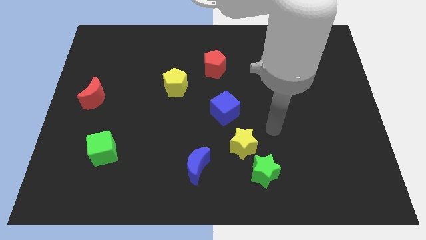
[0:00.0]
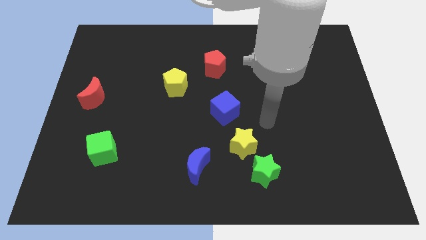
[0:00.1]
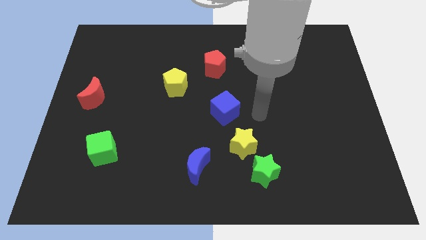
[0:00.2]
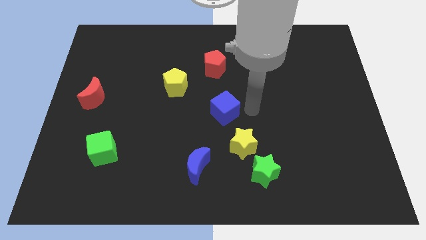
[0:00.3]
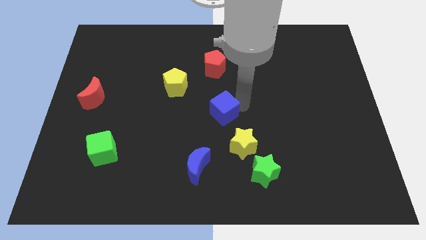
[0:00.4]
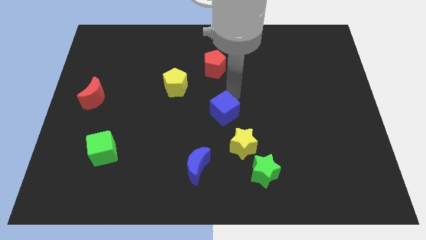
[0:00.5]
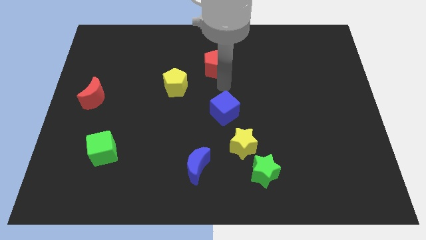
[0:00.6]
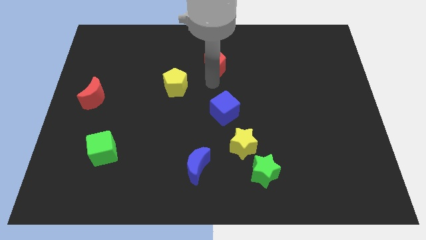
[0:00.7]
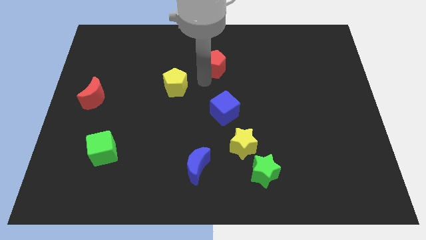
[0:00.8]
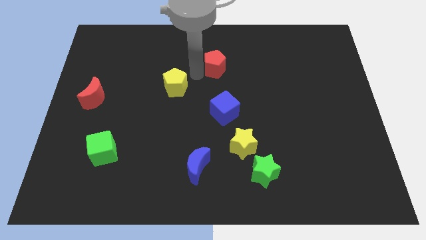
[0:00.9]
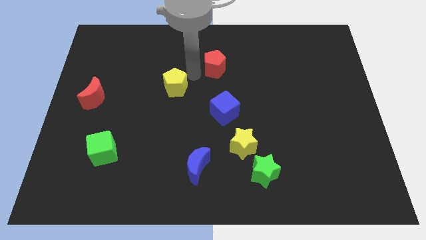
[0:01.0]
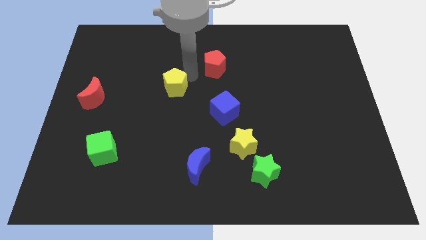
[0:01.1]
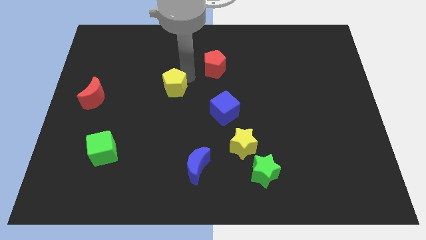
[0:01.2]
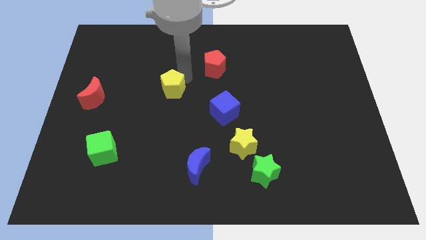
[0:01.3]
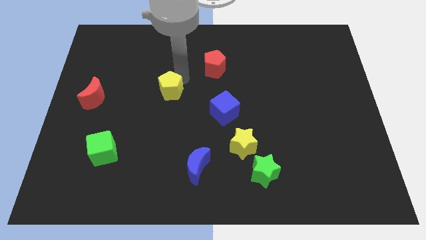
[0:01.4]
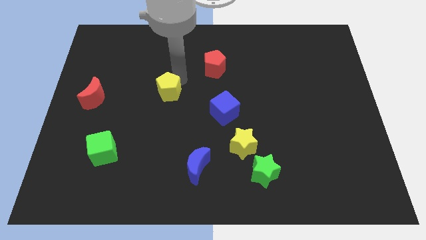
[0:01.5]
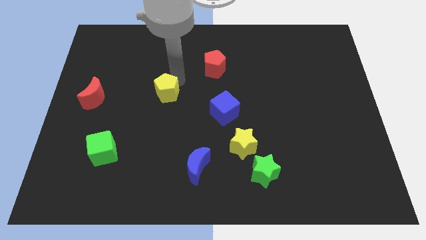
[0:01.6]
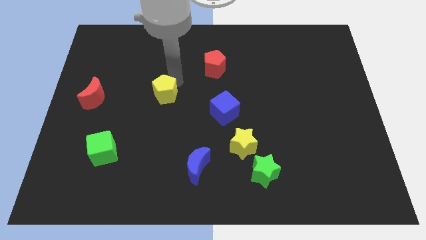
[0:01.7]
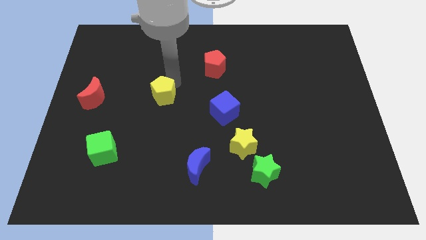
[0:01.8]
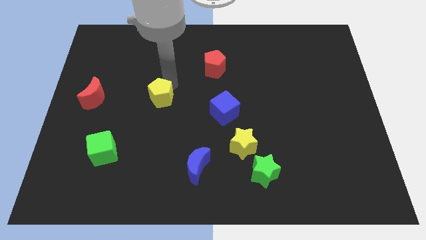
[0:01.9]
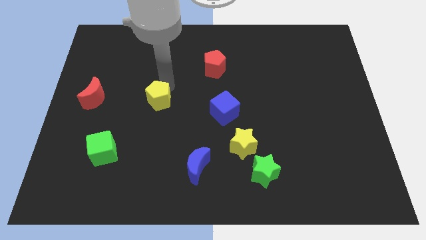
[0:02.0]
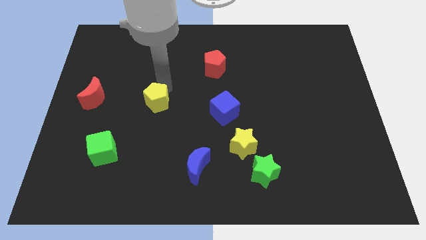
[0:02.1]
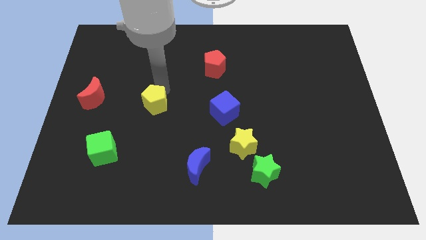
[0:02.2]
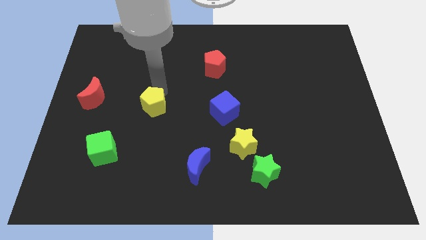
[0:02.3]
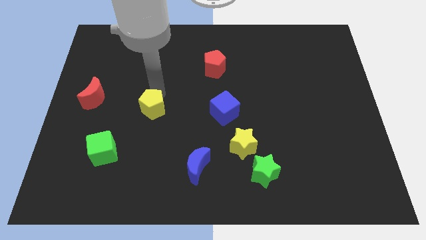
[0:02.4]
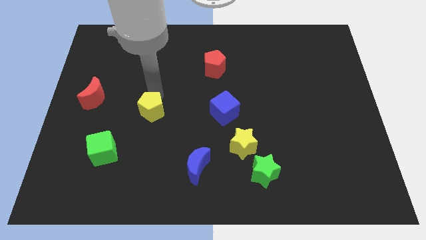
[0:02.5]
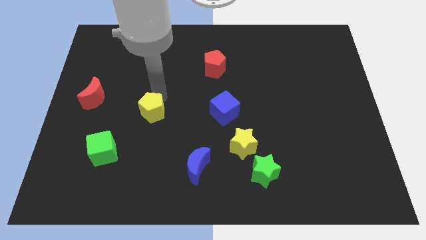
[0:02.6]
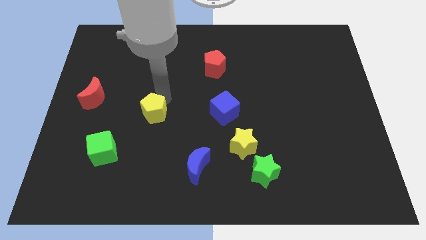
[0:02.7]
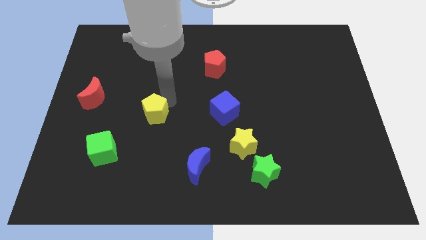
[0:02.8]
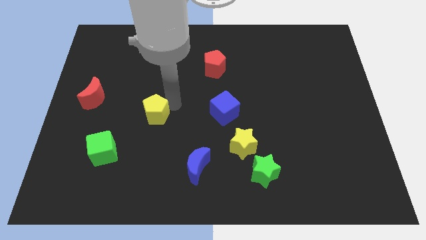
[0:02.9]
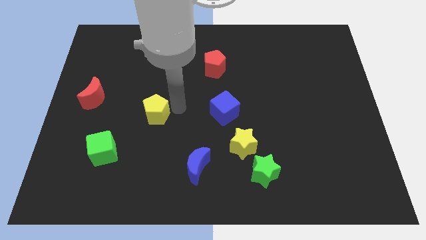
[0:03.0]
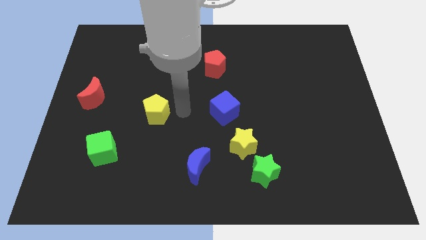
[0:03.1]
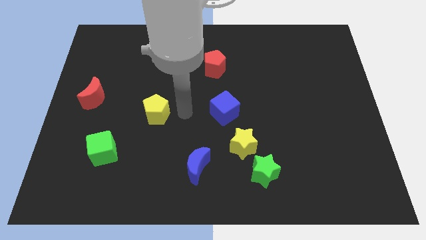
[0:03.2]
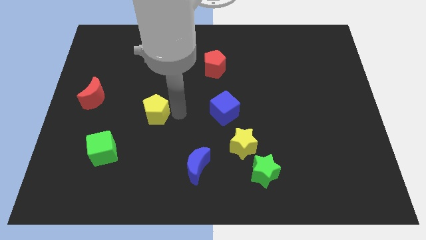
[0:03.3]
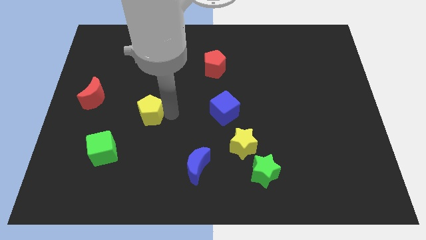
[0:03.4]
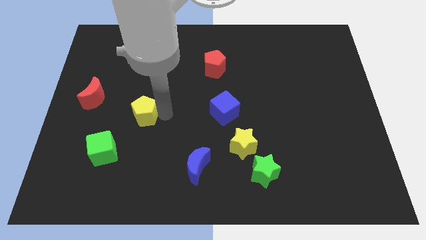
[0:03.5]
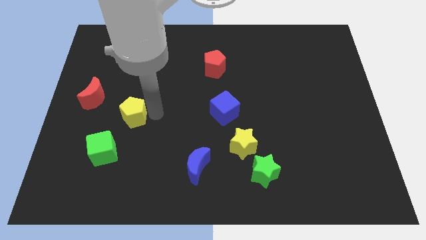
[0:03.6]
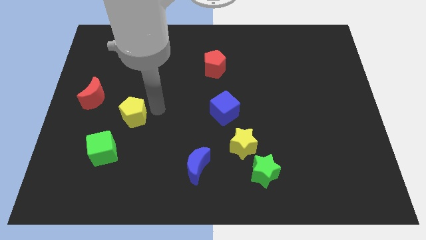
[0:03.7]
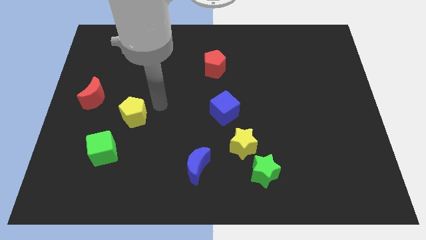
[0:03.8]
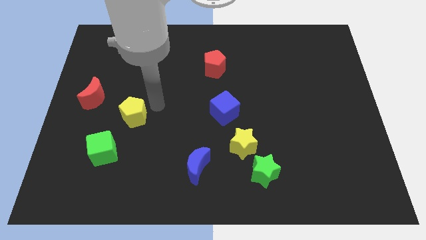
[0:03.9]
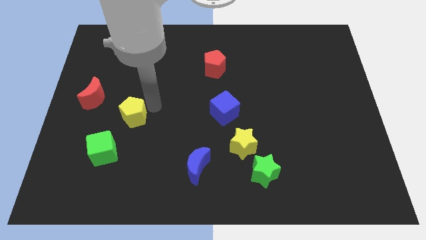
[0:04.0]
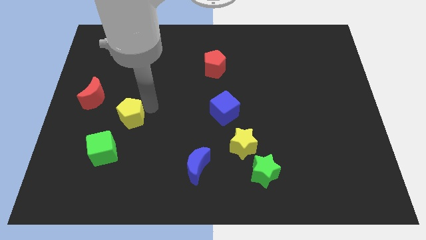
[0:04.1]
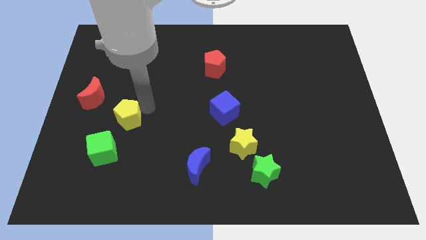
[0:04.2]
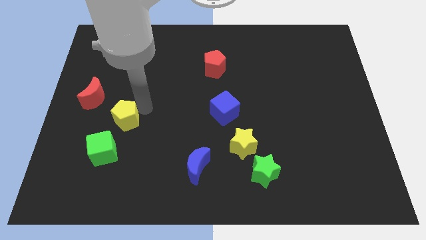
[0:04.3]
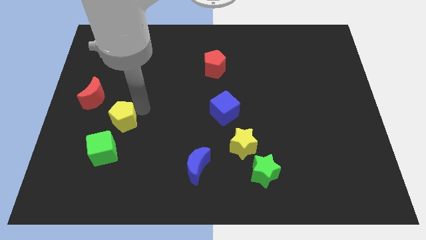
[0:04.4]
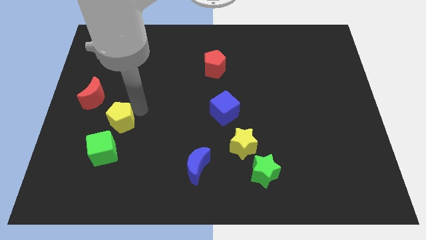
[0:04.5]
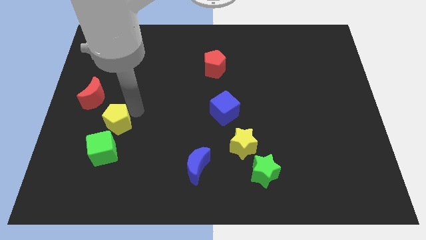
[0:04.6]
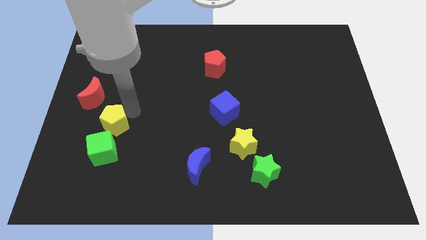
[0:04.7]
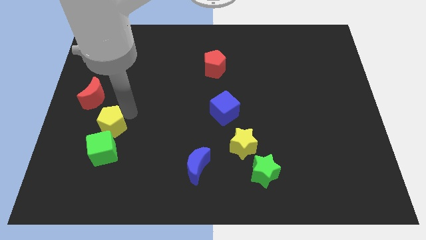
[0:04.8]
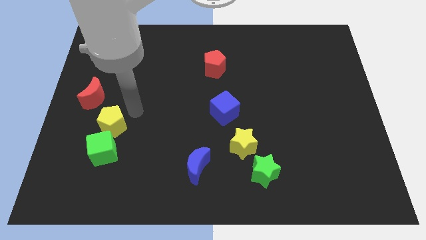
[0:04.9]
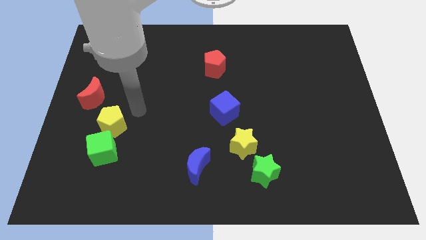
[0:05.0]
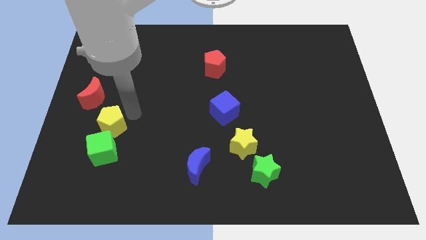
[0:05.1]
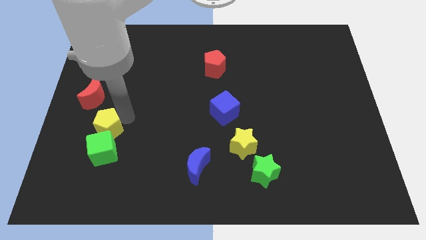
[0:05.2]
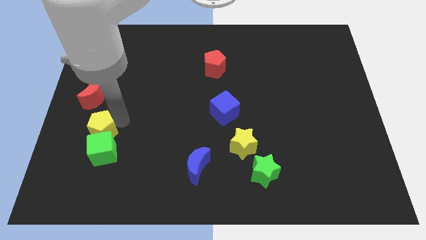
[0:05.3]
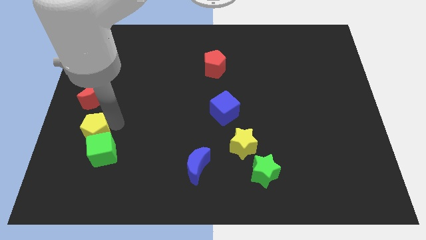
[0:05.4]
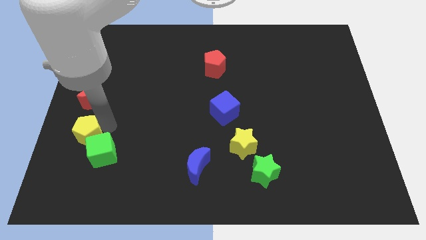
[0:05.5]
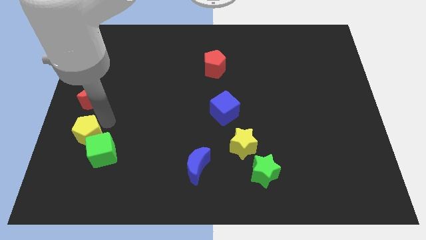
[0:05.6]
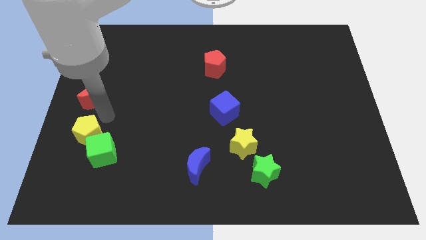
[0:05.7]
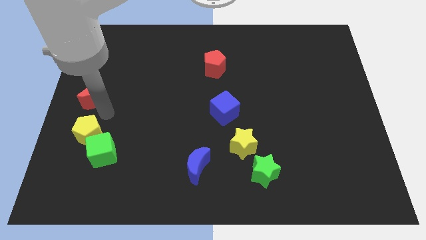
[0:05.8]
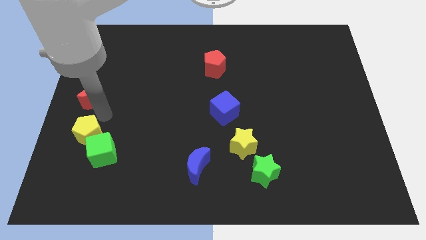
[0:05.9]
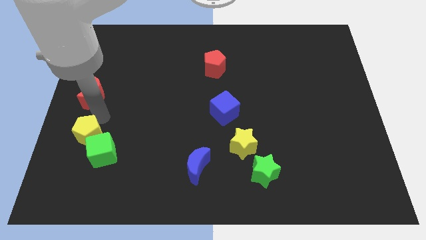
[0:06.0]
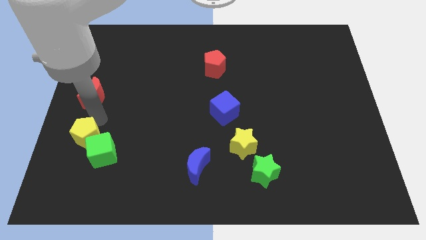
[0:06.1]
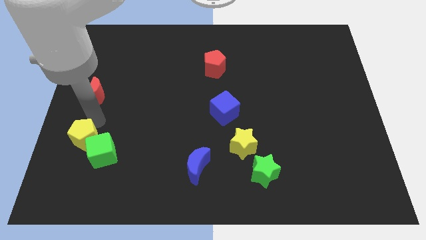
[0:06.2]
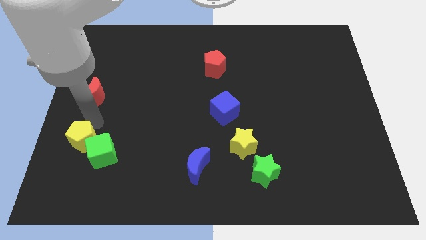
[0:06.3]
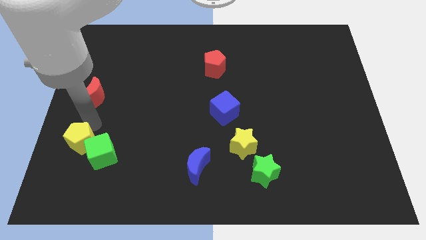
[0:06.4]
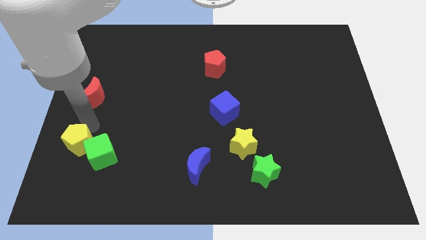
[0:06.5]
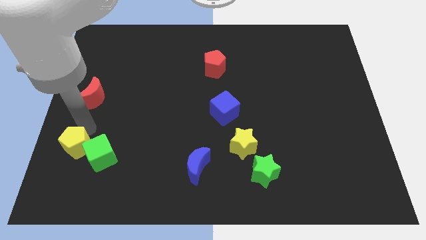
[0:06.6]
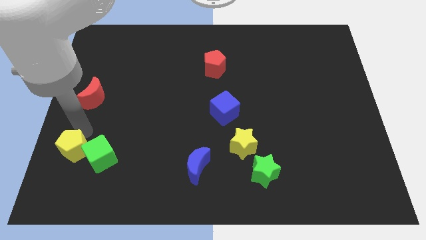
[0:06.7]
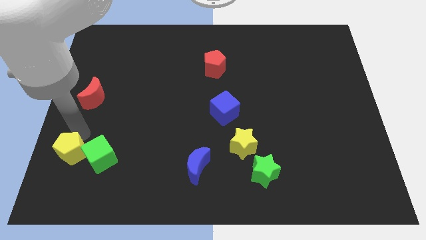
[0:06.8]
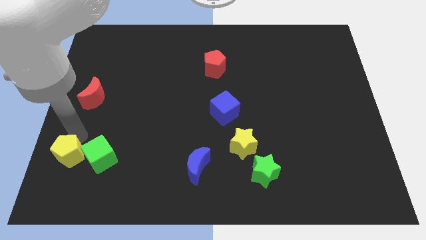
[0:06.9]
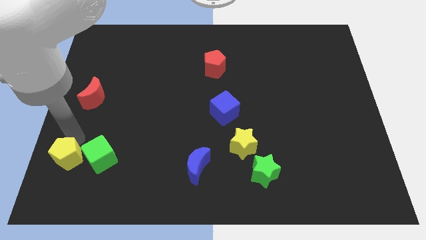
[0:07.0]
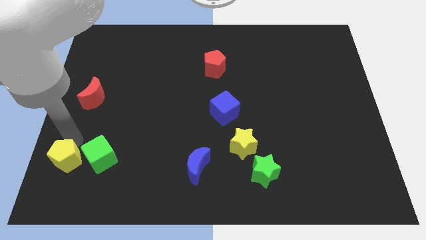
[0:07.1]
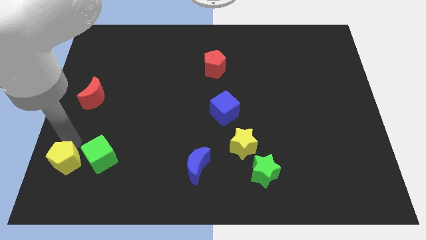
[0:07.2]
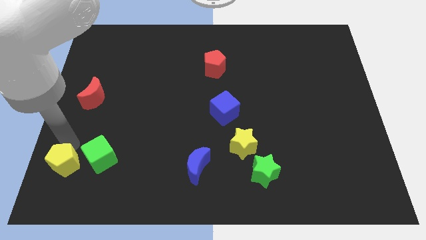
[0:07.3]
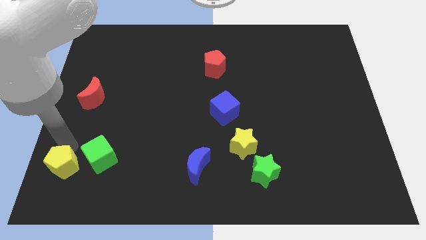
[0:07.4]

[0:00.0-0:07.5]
push the yellow pentagon to the bottom left corner
